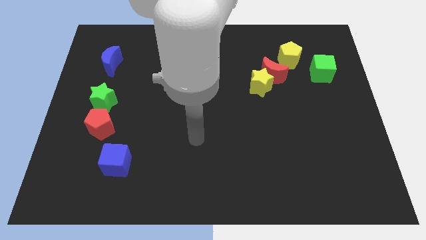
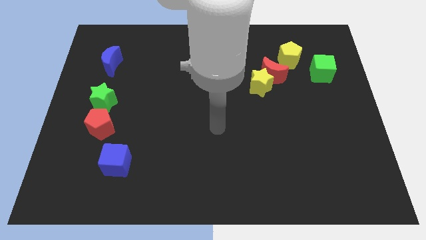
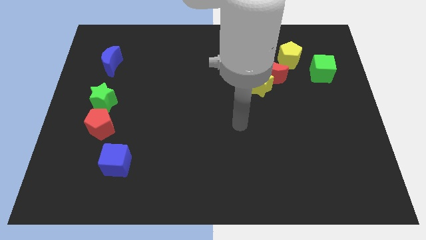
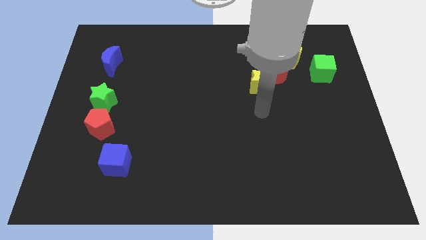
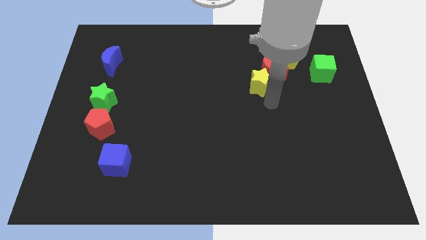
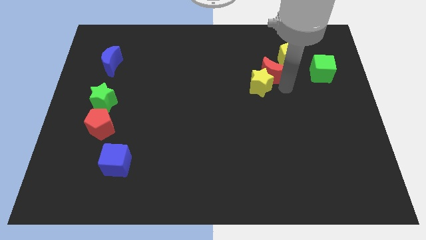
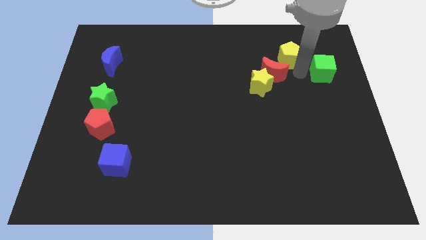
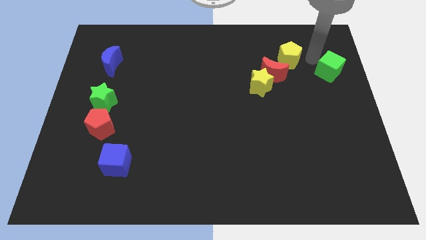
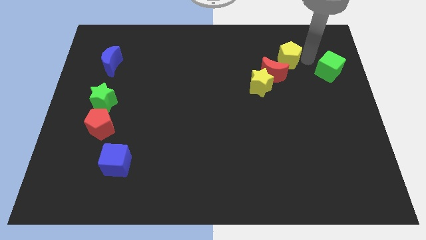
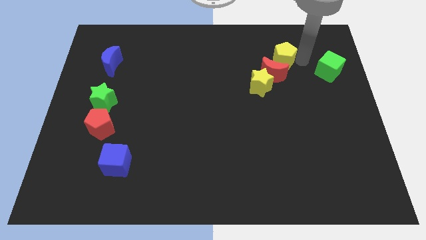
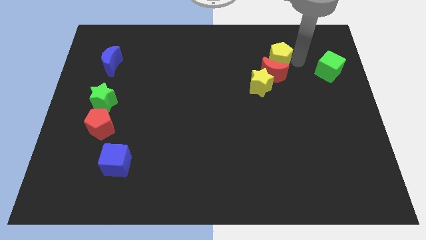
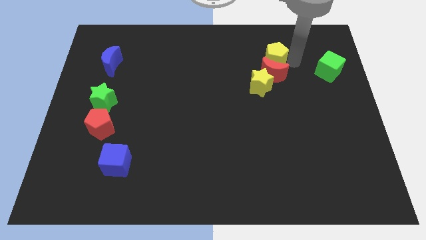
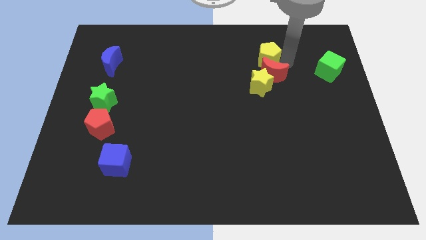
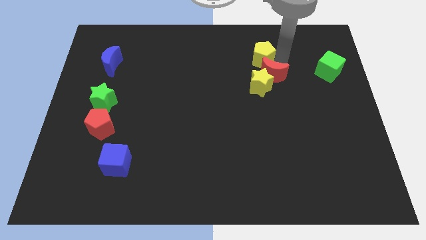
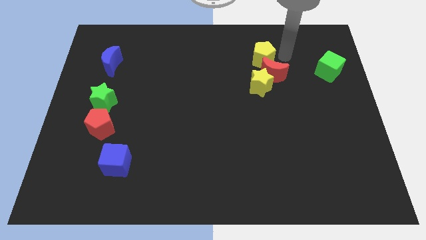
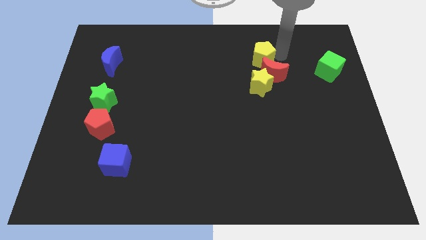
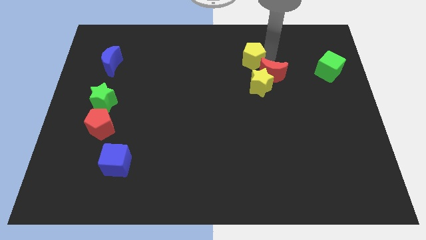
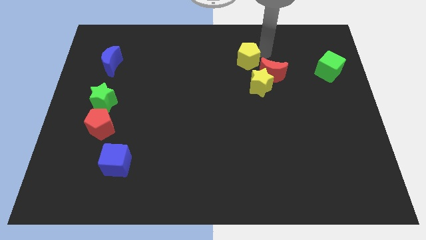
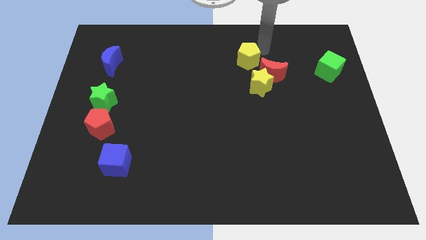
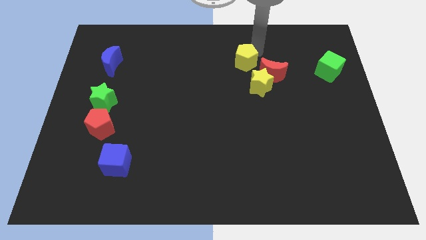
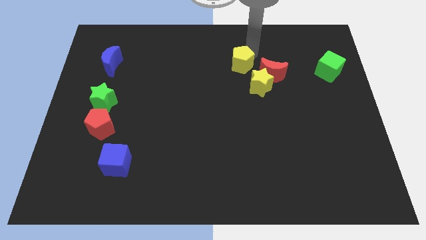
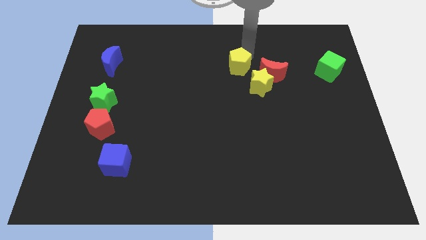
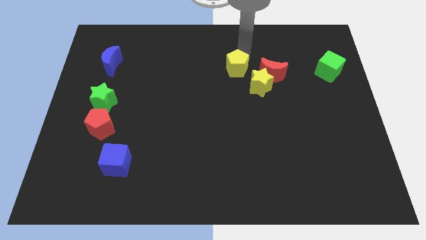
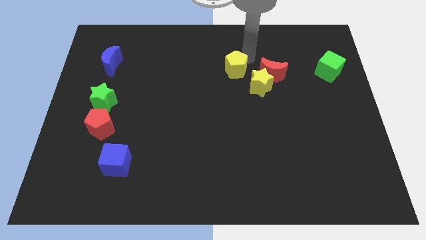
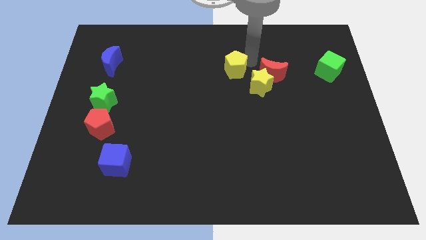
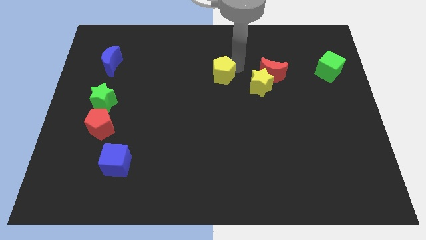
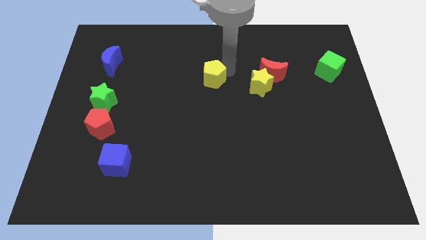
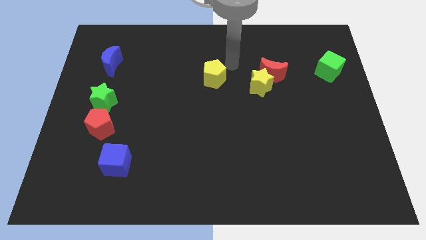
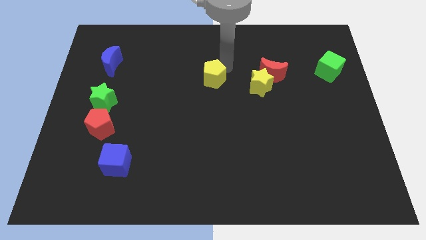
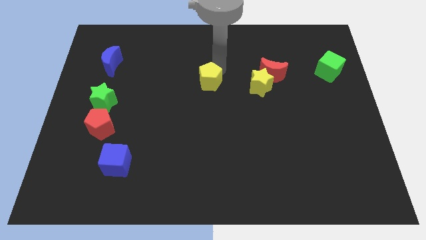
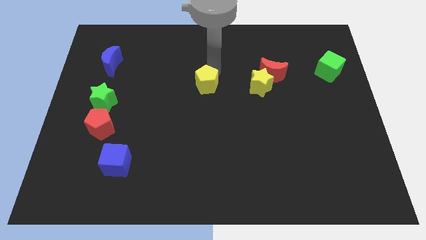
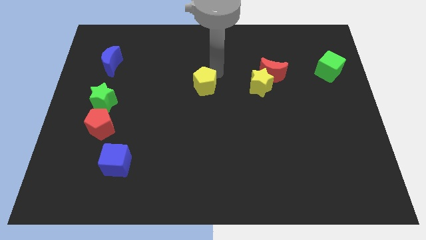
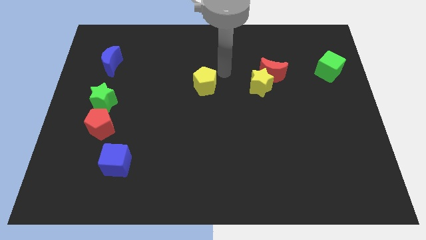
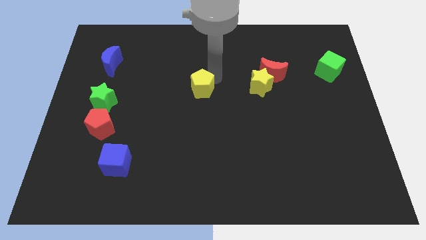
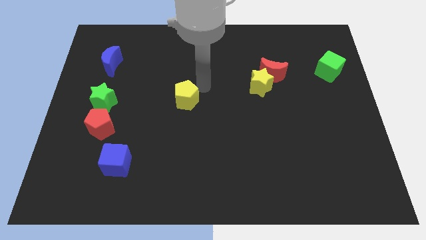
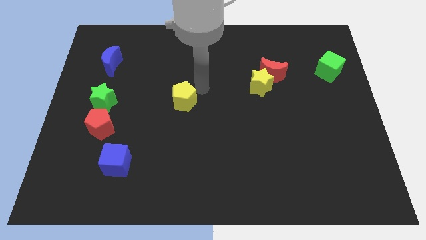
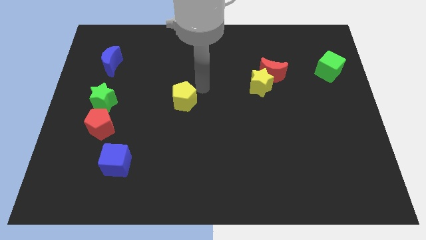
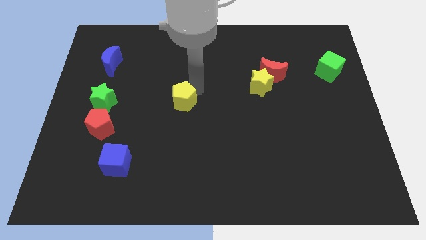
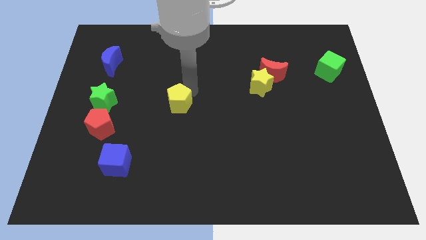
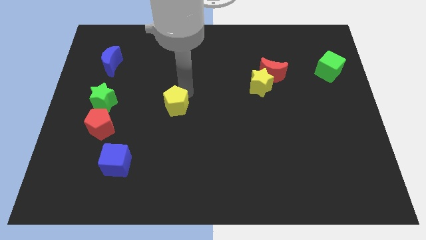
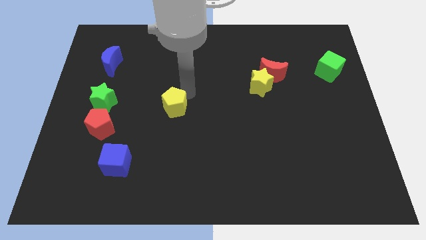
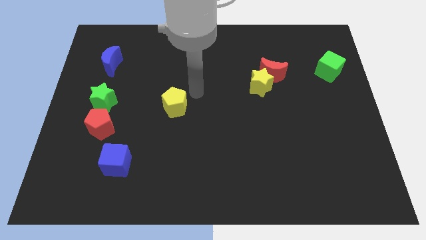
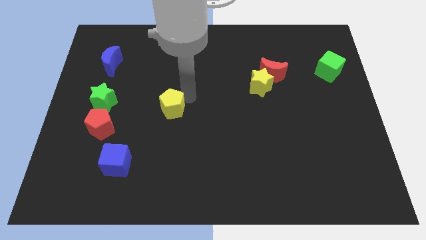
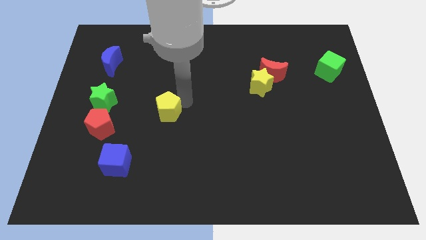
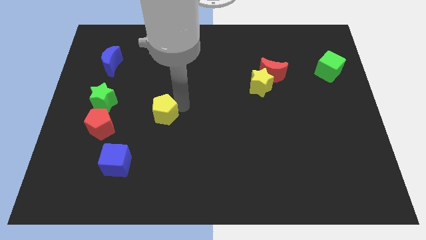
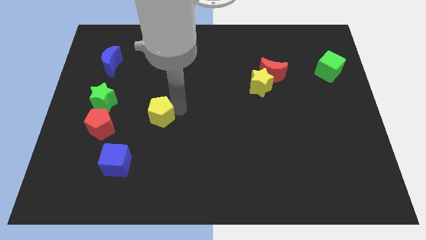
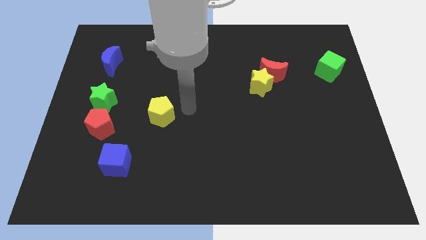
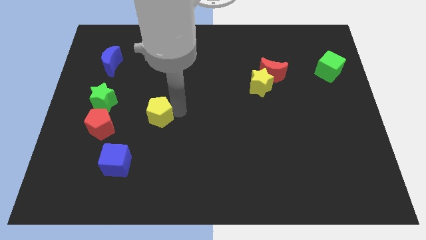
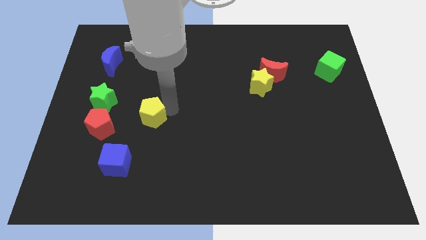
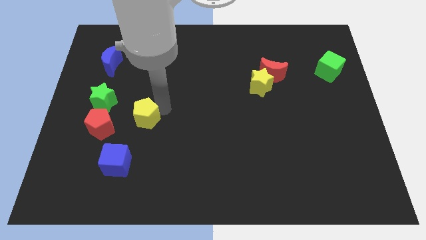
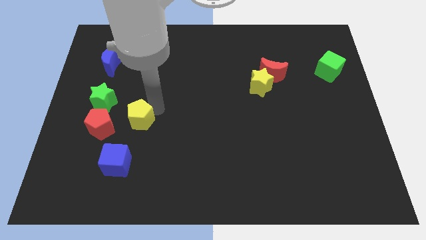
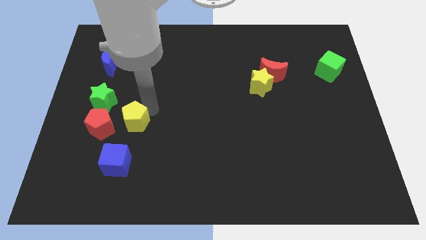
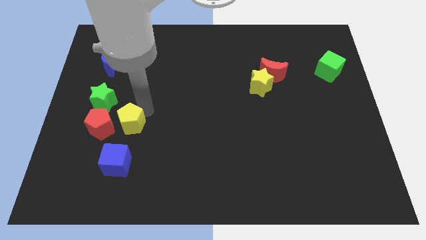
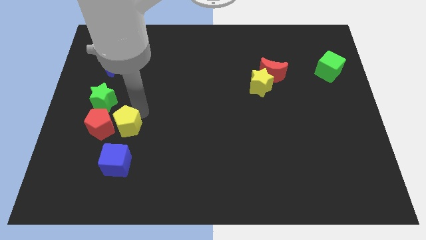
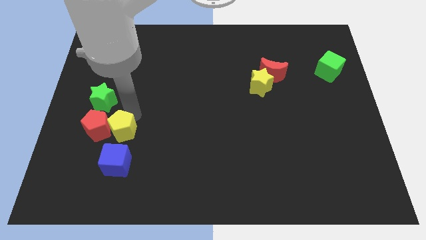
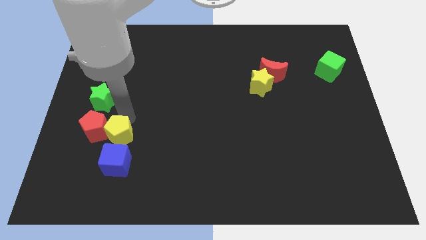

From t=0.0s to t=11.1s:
move the yellow pentagon diagonally up and to the left of the blue cube

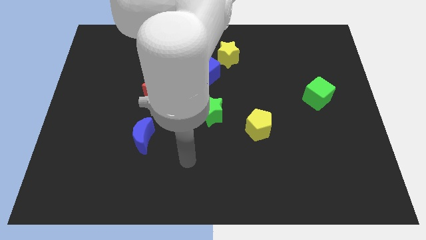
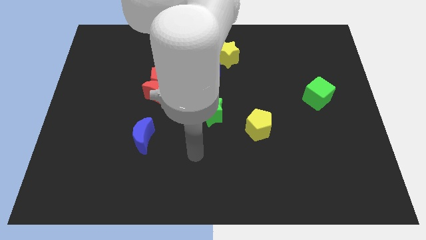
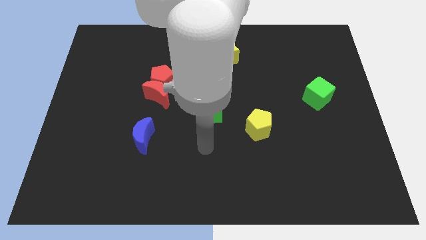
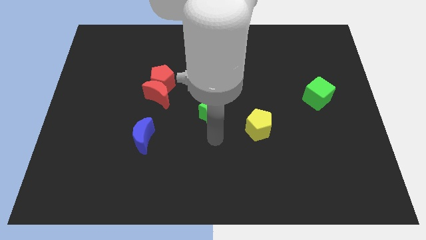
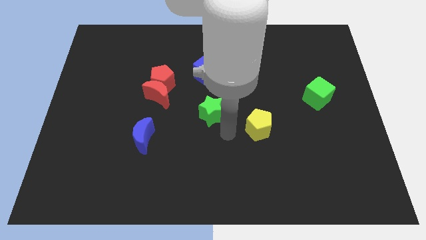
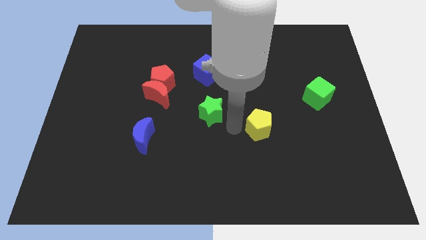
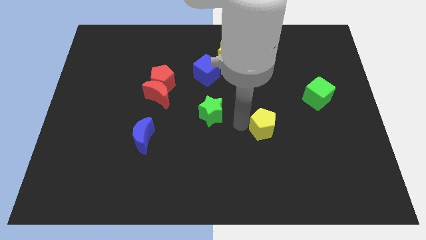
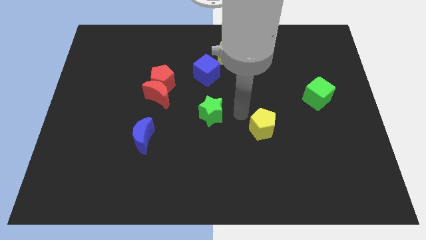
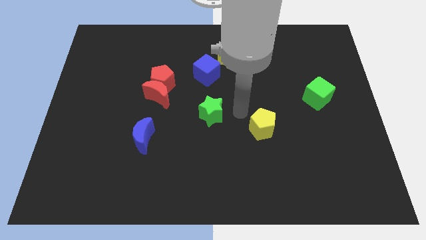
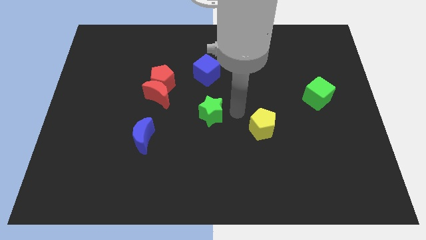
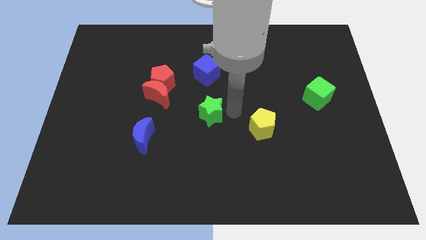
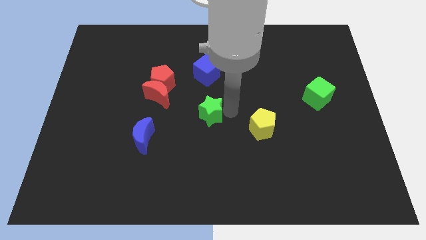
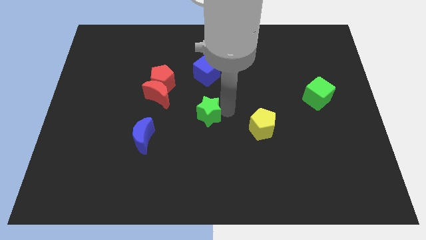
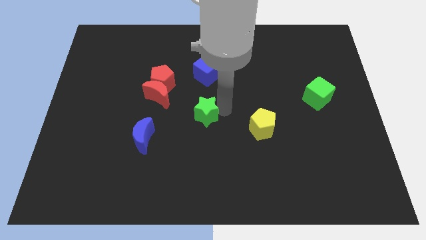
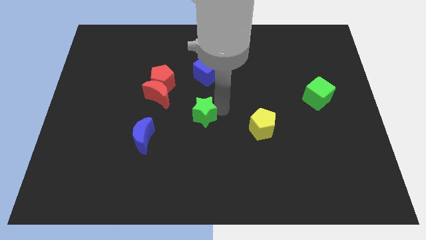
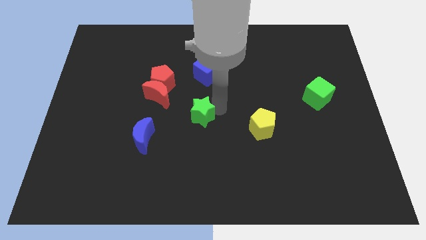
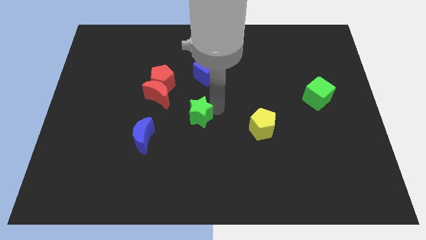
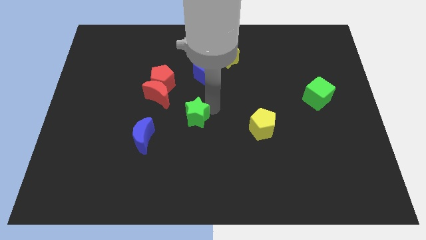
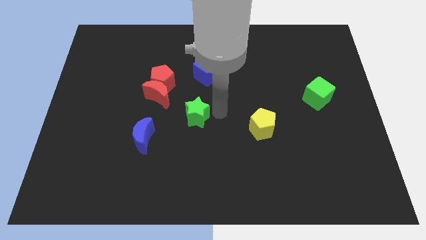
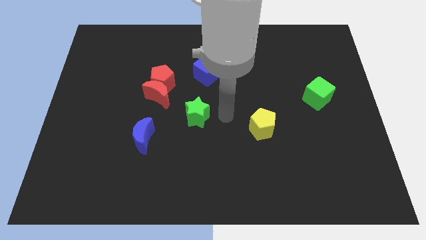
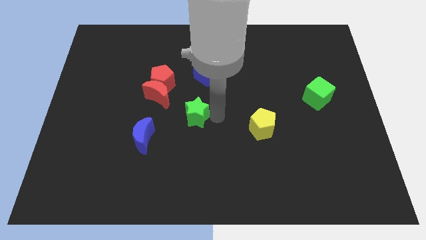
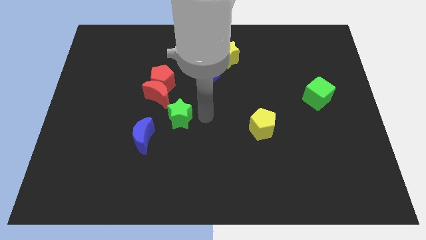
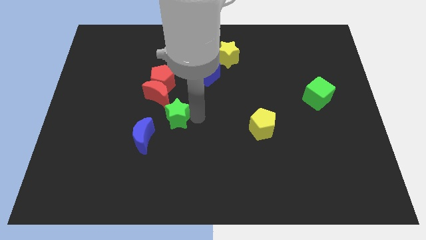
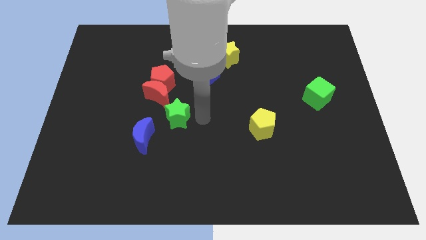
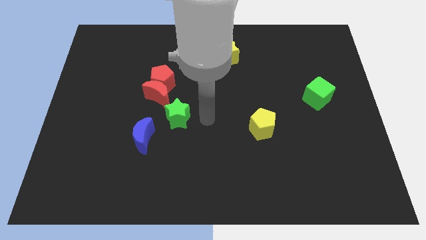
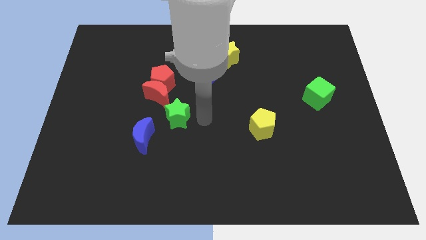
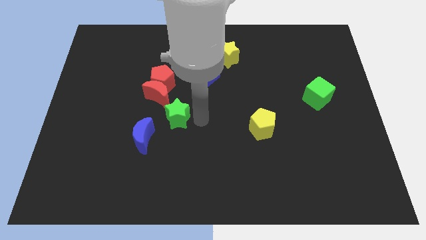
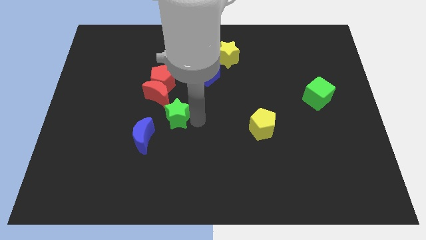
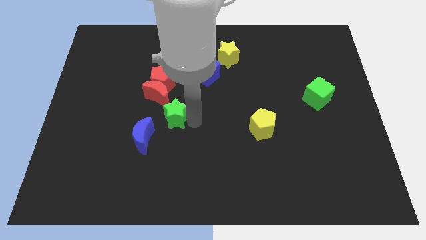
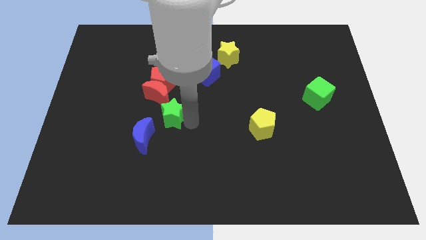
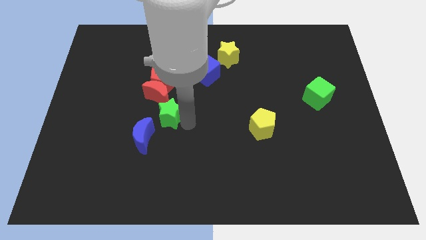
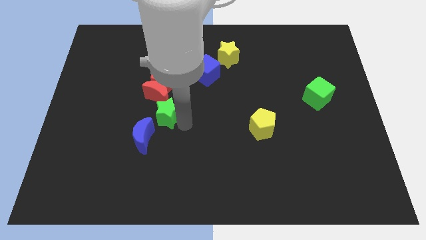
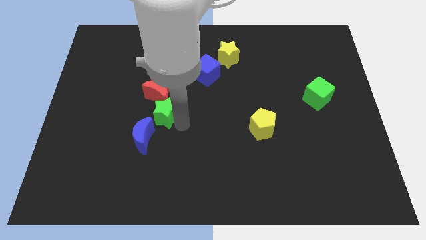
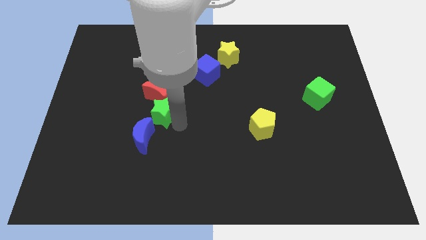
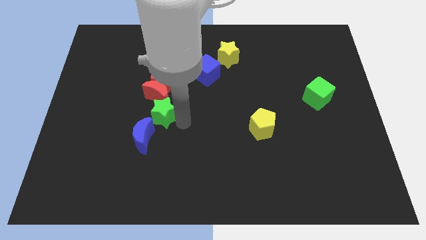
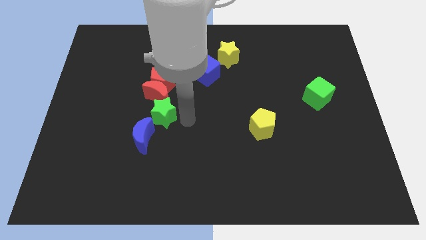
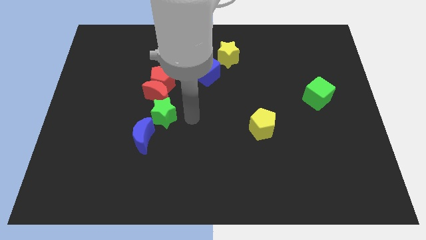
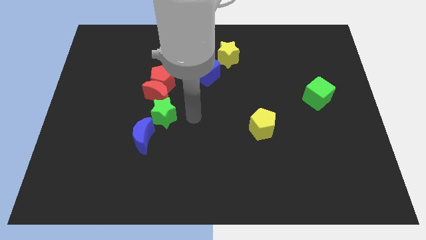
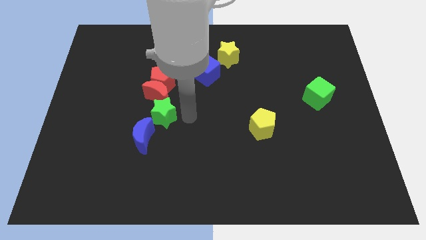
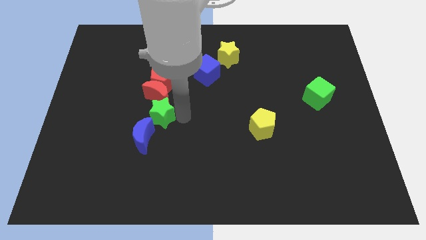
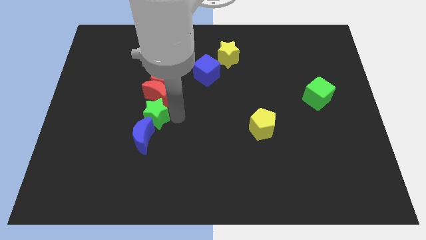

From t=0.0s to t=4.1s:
put the green star diagonally down and to the left of the red moon
